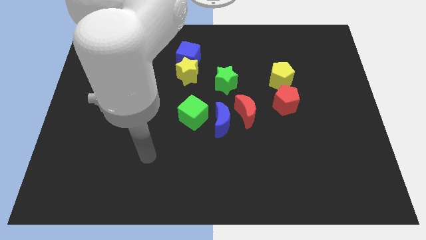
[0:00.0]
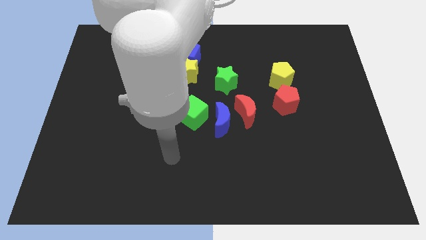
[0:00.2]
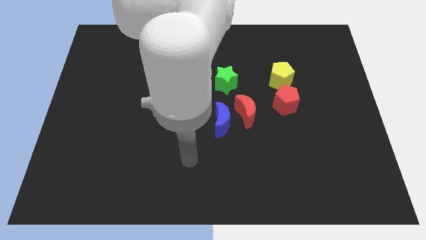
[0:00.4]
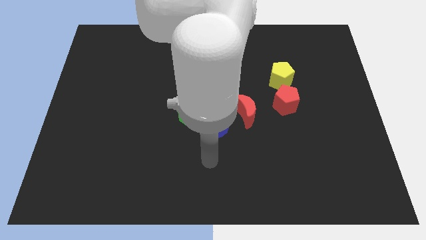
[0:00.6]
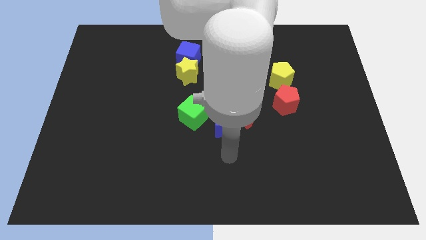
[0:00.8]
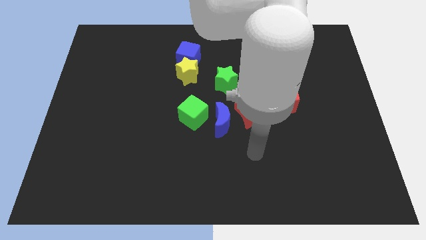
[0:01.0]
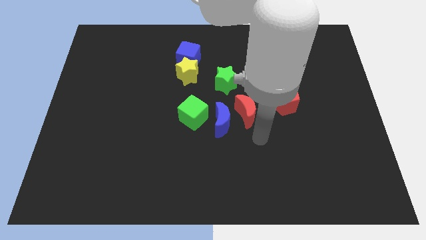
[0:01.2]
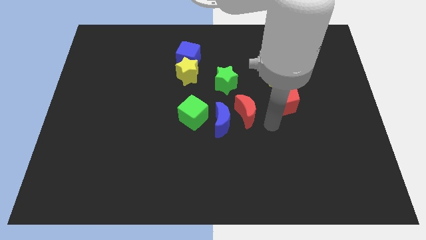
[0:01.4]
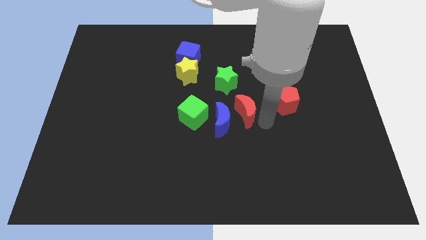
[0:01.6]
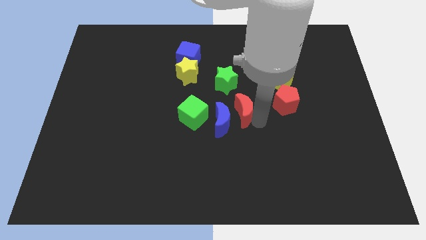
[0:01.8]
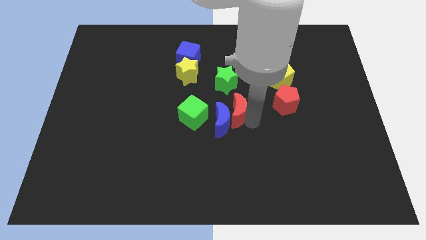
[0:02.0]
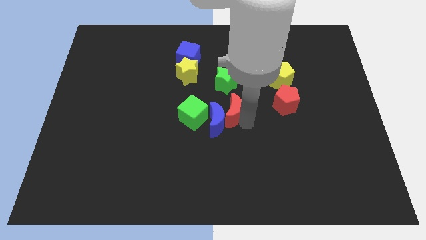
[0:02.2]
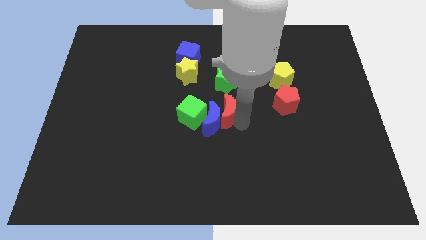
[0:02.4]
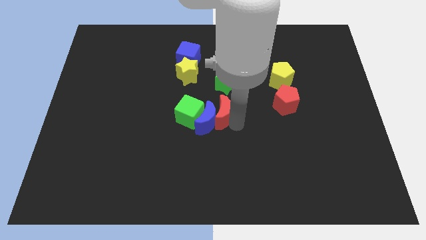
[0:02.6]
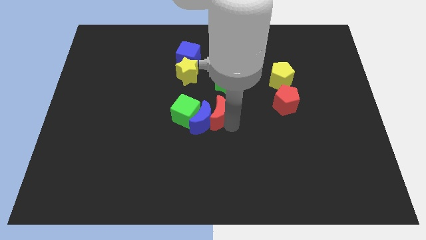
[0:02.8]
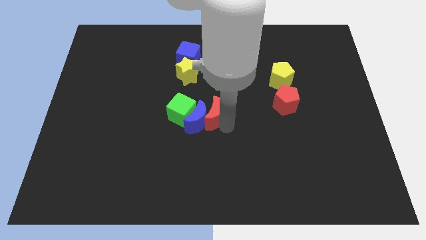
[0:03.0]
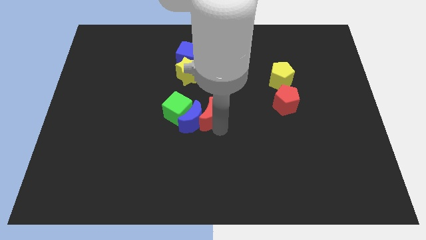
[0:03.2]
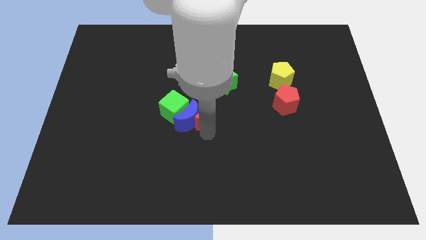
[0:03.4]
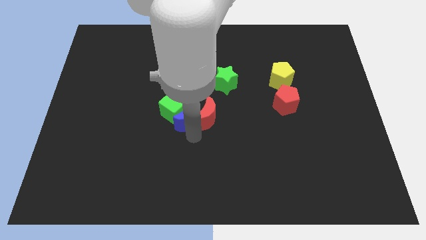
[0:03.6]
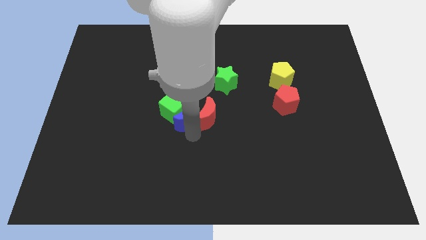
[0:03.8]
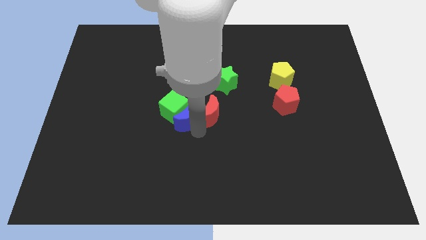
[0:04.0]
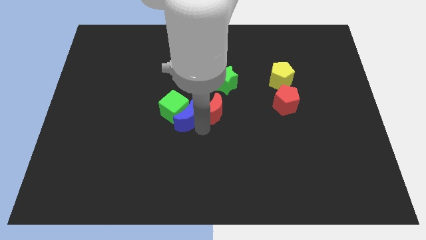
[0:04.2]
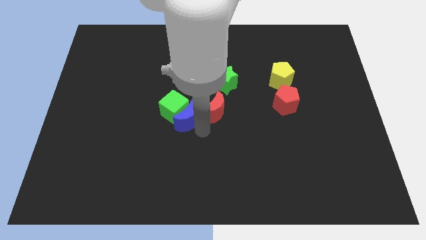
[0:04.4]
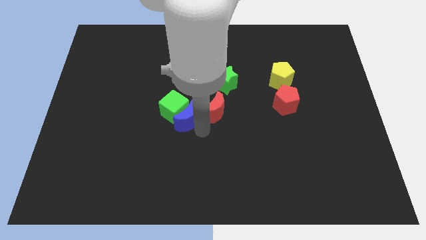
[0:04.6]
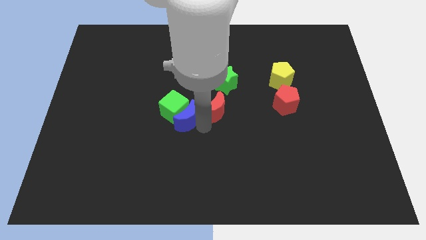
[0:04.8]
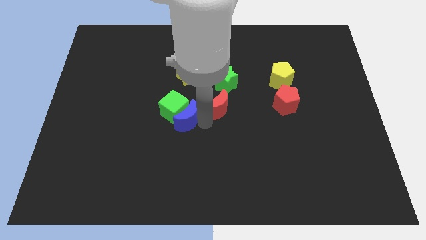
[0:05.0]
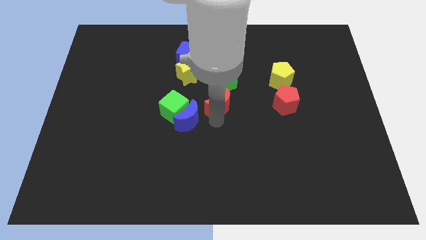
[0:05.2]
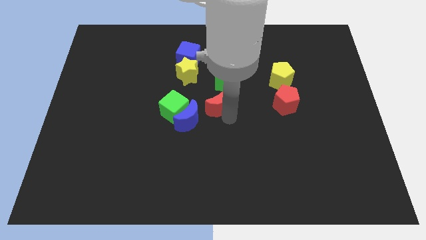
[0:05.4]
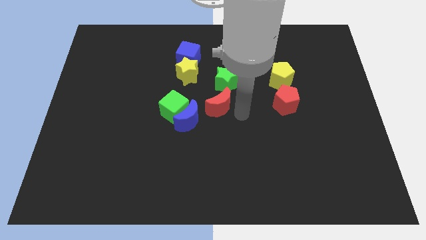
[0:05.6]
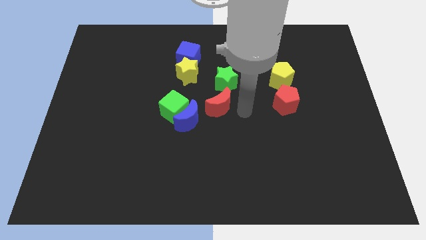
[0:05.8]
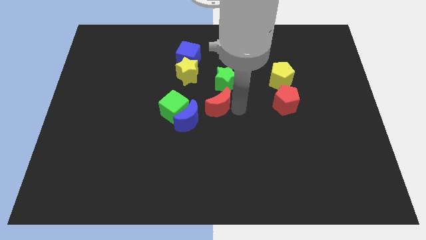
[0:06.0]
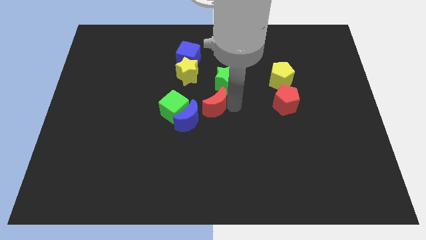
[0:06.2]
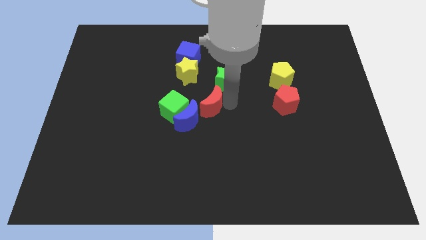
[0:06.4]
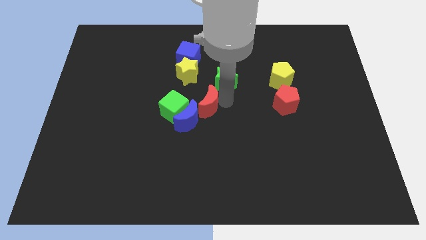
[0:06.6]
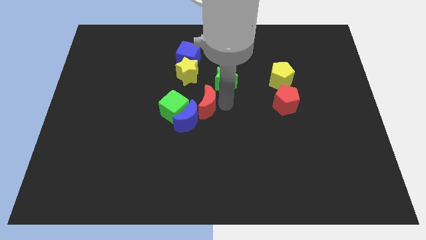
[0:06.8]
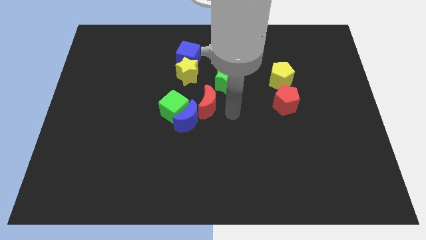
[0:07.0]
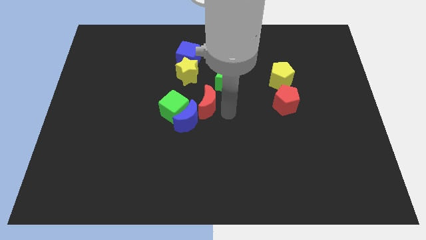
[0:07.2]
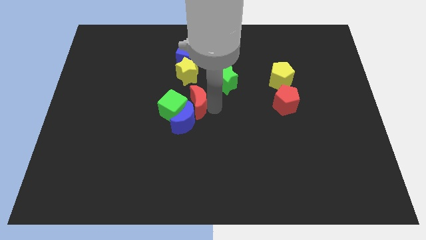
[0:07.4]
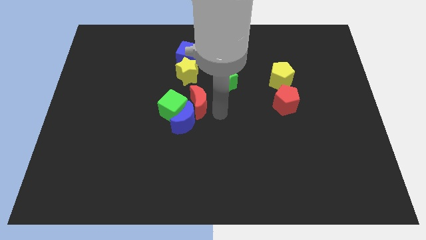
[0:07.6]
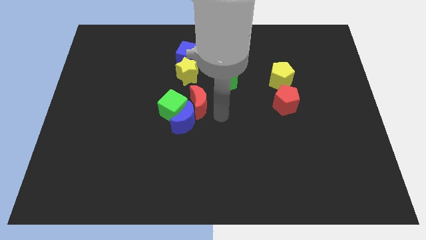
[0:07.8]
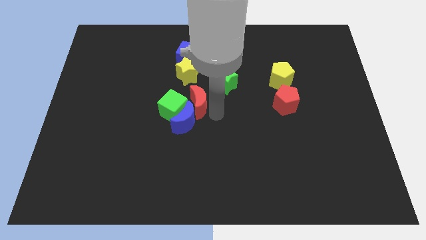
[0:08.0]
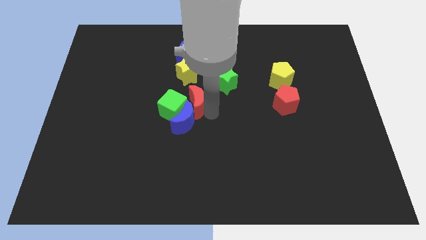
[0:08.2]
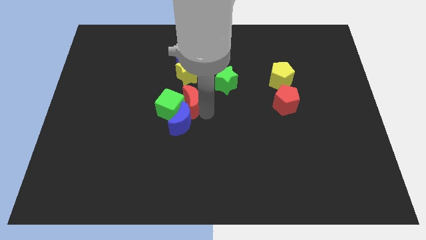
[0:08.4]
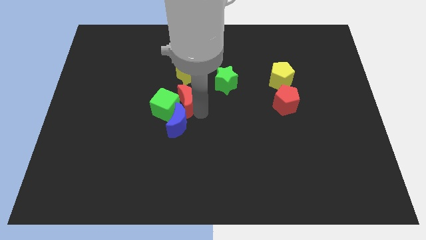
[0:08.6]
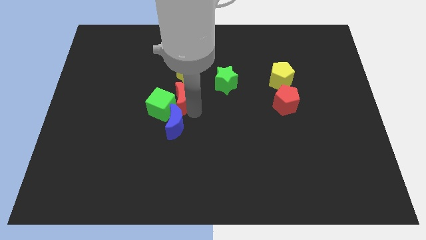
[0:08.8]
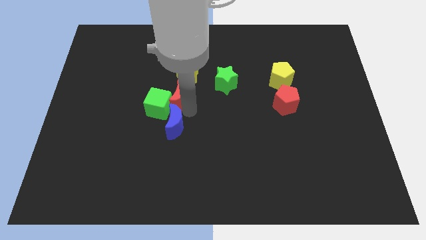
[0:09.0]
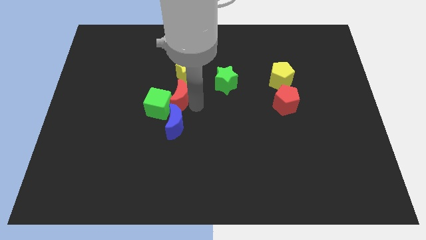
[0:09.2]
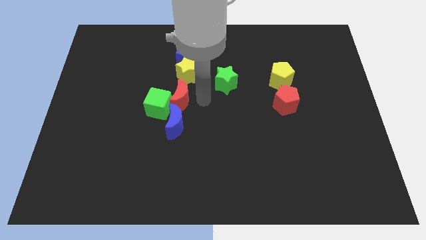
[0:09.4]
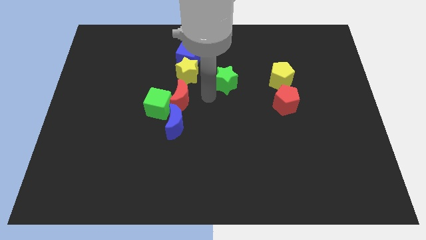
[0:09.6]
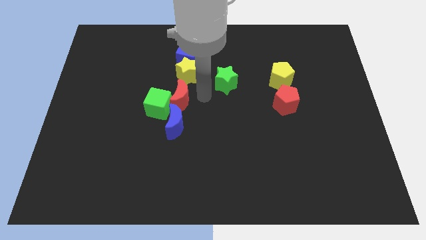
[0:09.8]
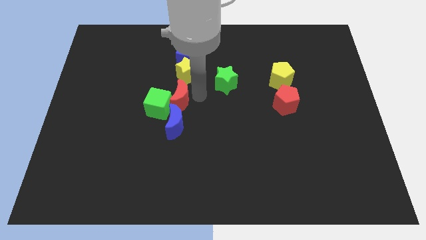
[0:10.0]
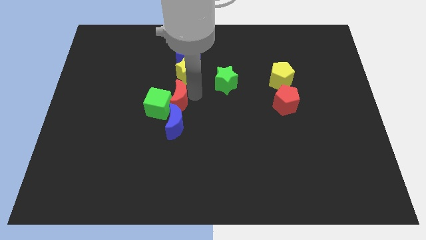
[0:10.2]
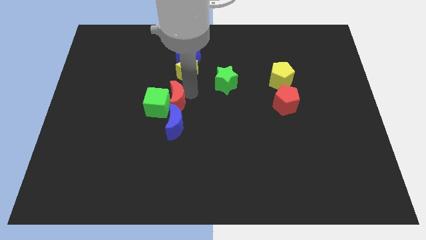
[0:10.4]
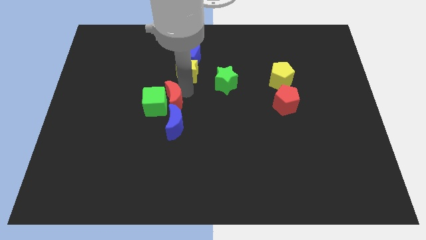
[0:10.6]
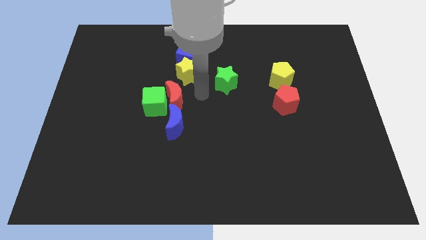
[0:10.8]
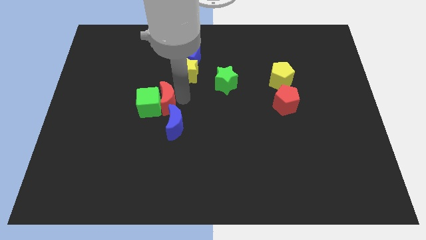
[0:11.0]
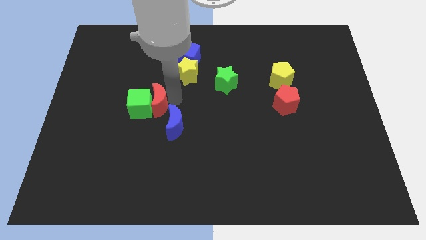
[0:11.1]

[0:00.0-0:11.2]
push the red moon left

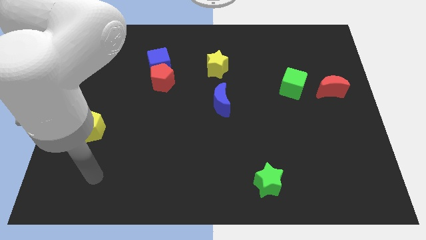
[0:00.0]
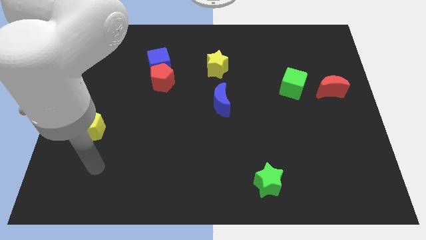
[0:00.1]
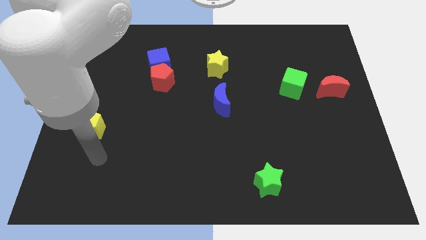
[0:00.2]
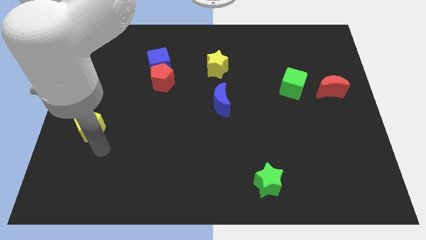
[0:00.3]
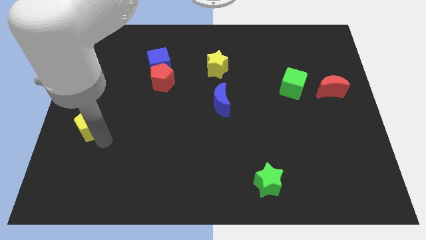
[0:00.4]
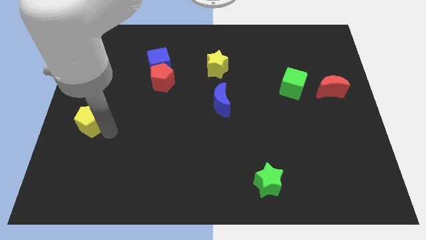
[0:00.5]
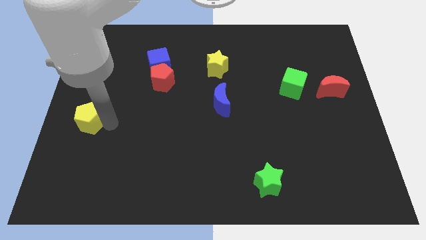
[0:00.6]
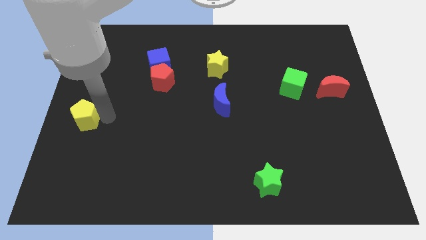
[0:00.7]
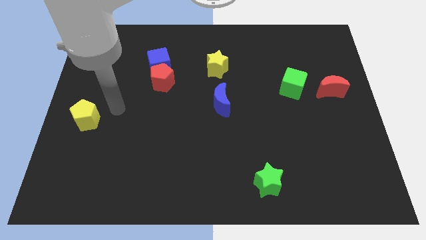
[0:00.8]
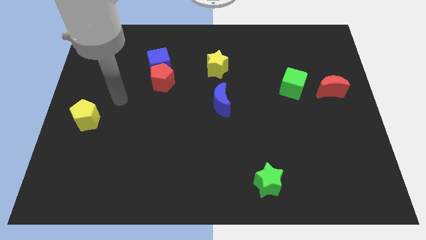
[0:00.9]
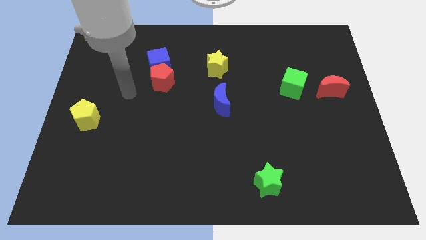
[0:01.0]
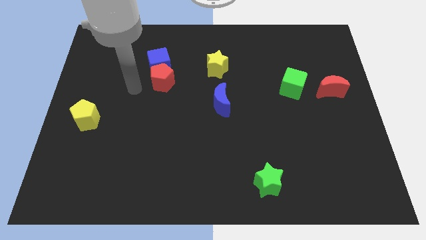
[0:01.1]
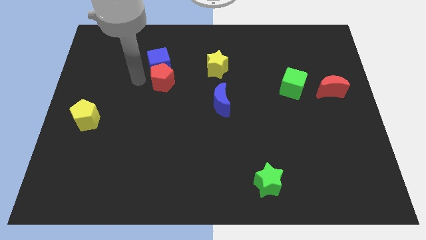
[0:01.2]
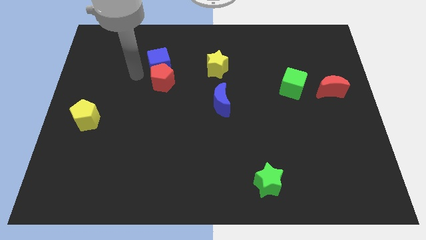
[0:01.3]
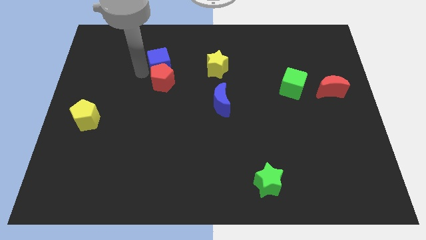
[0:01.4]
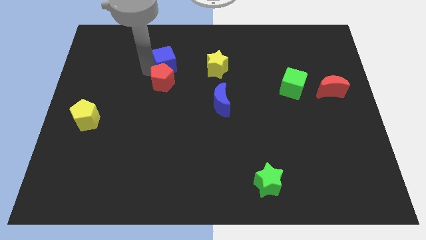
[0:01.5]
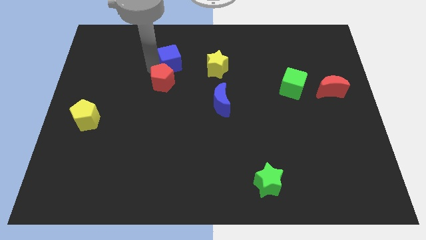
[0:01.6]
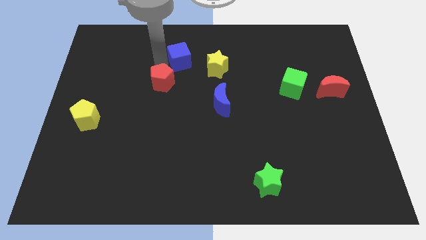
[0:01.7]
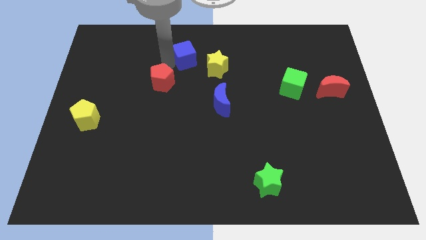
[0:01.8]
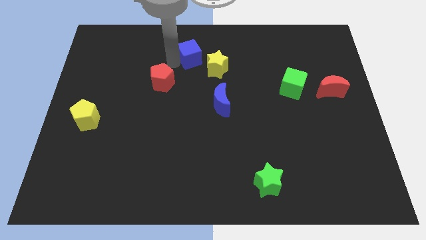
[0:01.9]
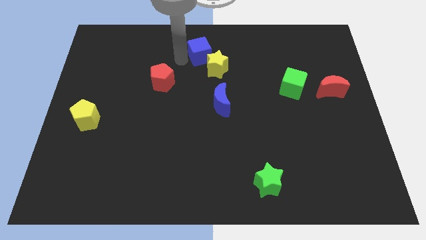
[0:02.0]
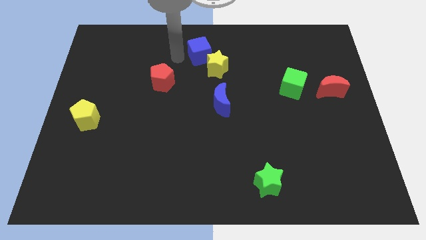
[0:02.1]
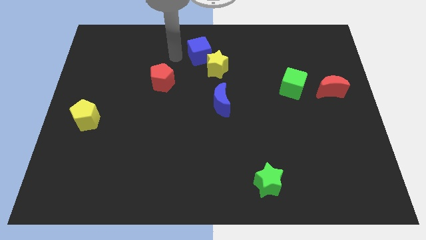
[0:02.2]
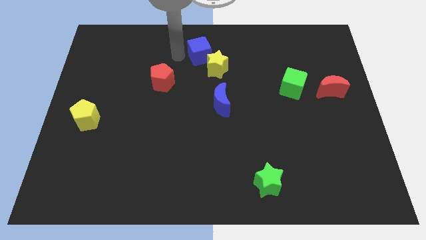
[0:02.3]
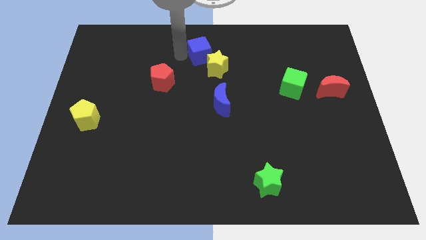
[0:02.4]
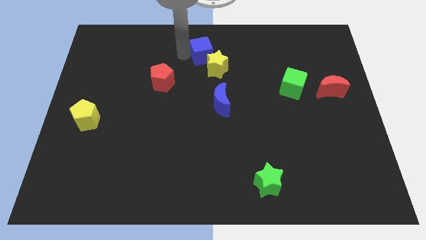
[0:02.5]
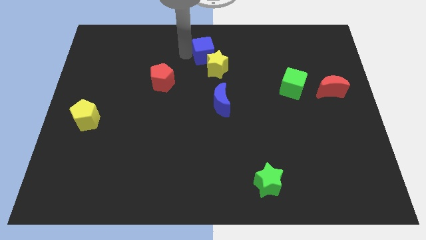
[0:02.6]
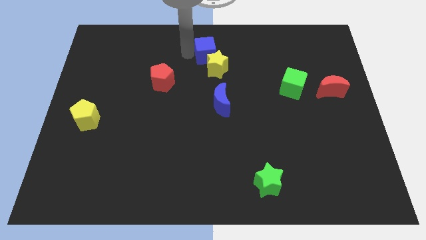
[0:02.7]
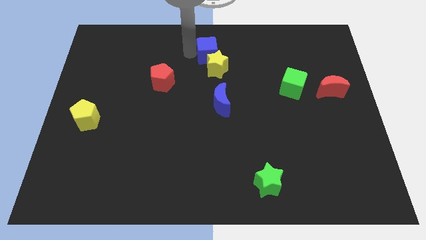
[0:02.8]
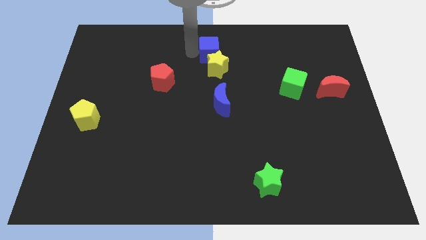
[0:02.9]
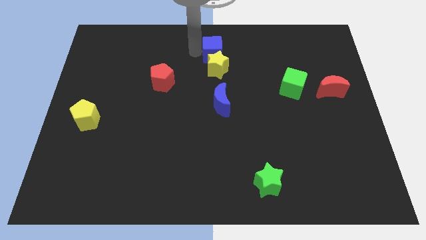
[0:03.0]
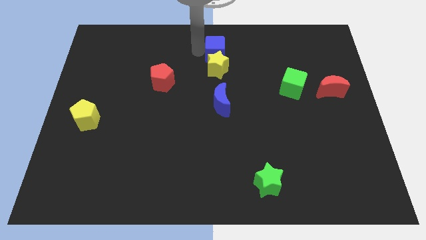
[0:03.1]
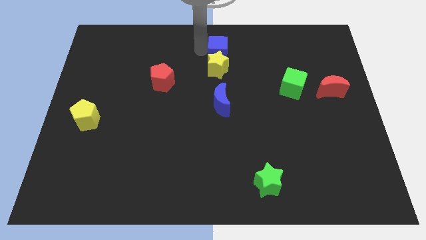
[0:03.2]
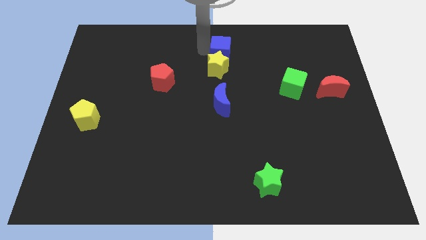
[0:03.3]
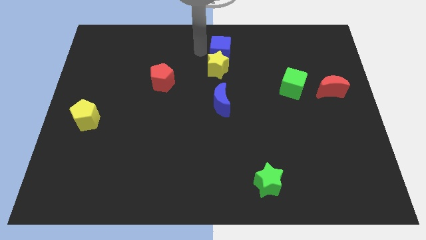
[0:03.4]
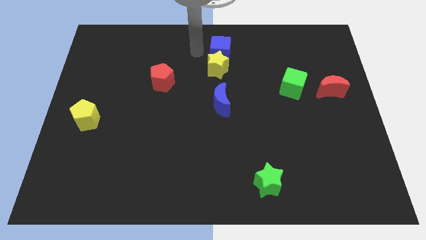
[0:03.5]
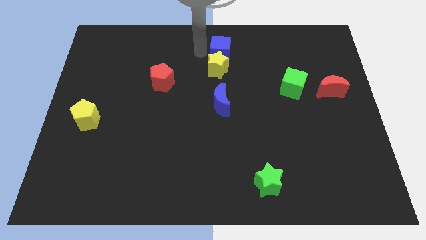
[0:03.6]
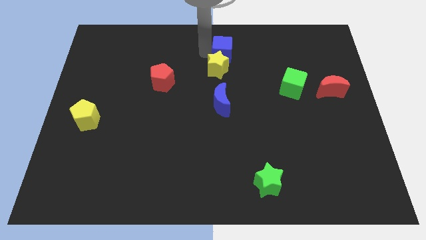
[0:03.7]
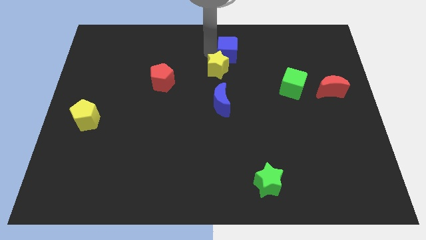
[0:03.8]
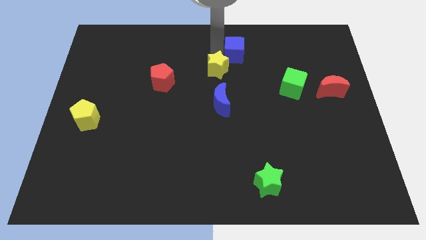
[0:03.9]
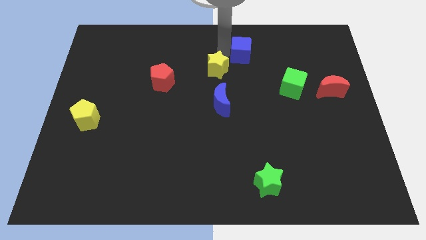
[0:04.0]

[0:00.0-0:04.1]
push the blue cube right
